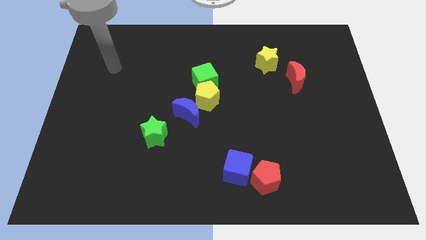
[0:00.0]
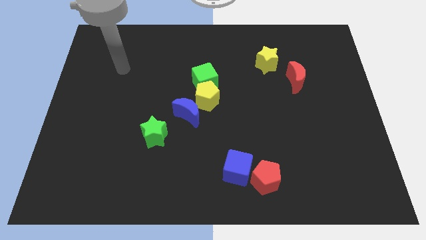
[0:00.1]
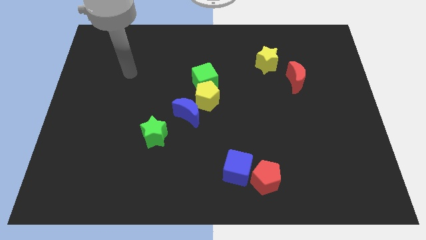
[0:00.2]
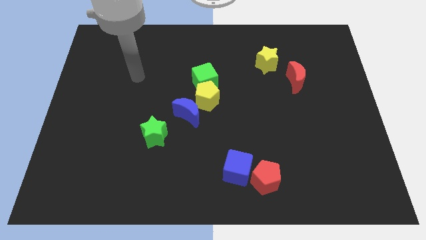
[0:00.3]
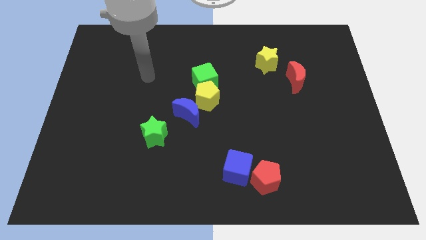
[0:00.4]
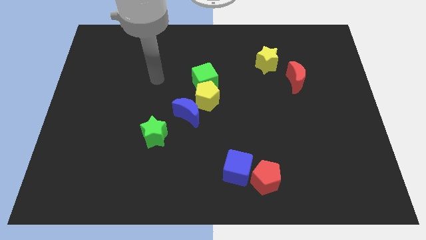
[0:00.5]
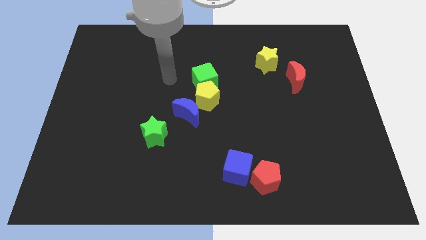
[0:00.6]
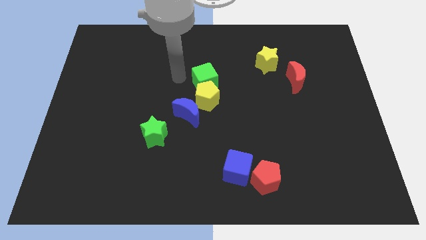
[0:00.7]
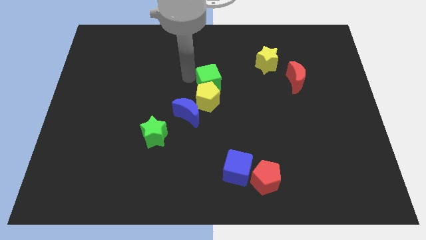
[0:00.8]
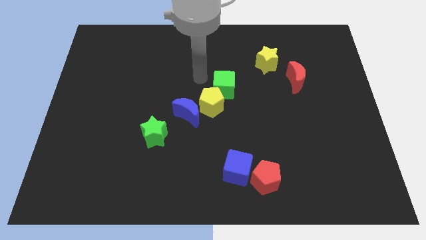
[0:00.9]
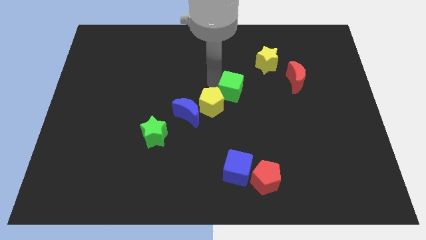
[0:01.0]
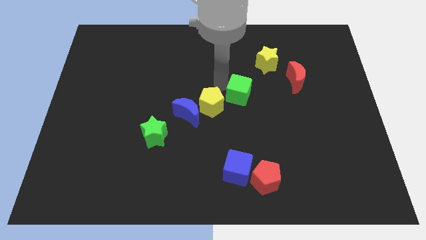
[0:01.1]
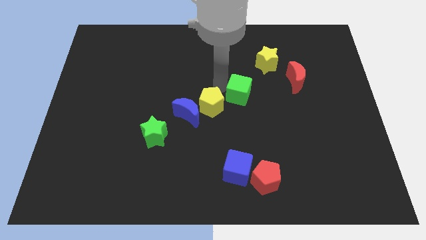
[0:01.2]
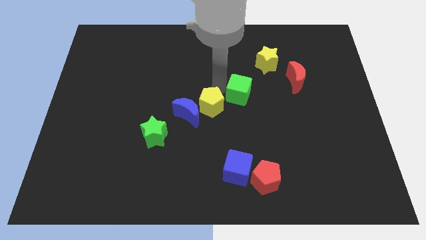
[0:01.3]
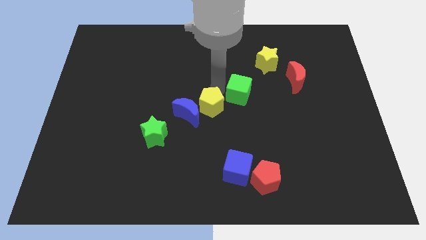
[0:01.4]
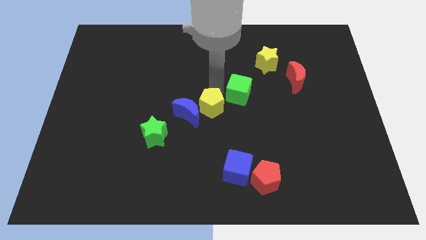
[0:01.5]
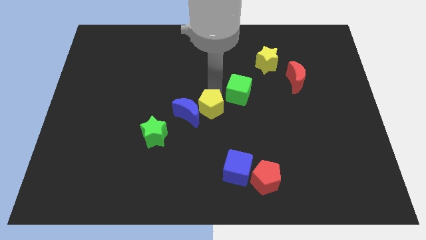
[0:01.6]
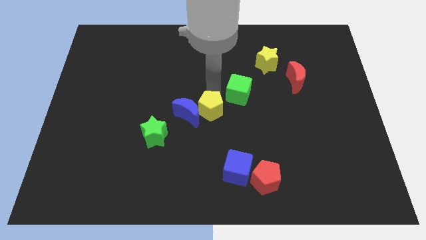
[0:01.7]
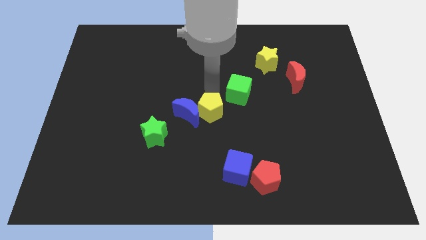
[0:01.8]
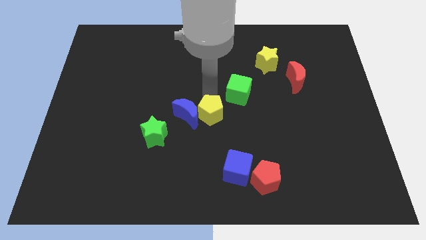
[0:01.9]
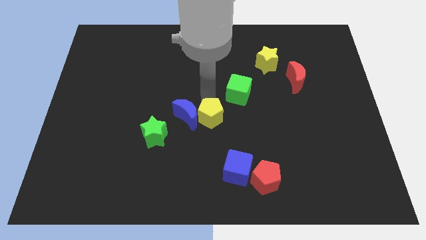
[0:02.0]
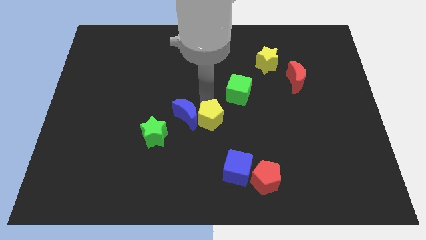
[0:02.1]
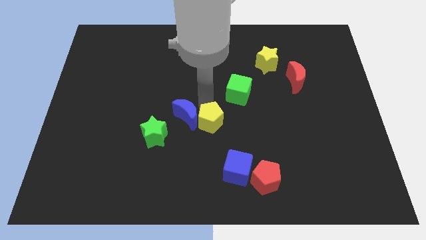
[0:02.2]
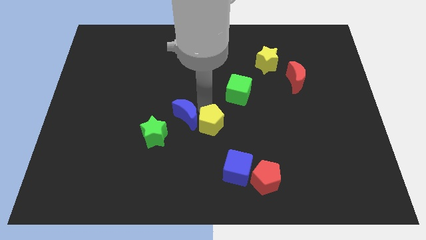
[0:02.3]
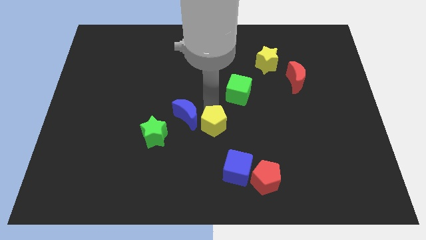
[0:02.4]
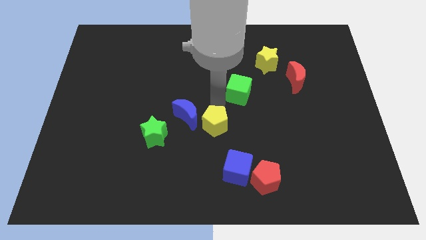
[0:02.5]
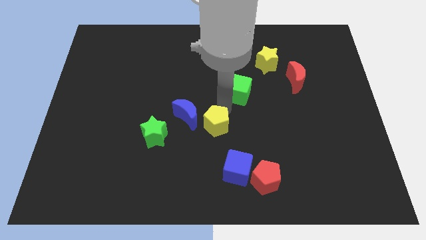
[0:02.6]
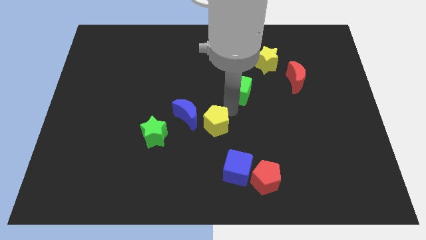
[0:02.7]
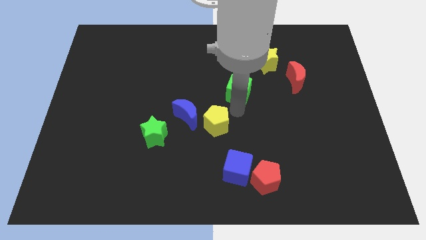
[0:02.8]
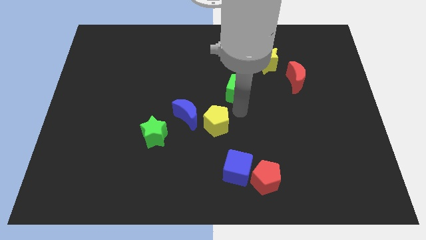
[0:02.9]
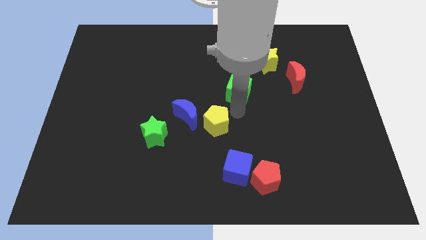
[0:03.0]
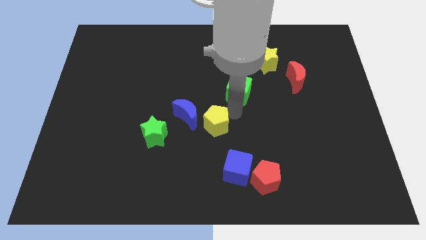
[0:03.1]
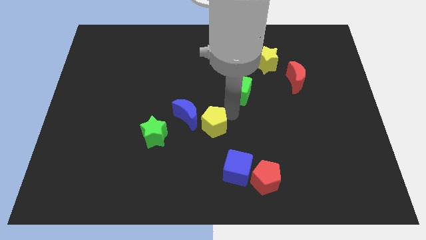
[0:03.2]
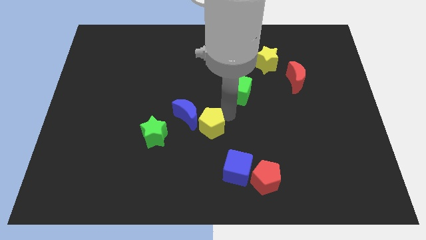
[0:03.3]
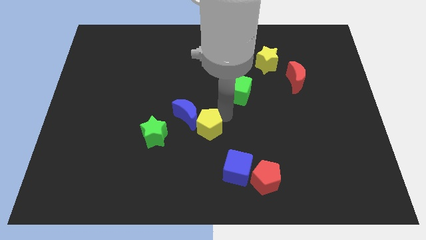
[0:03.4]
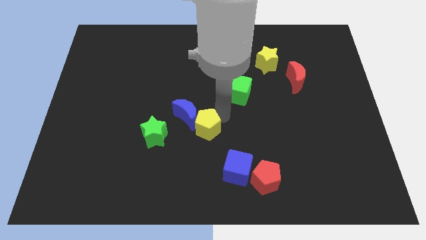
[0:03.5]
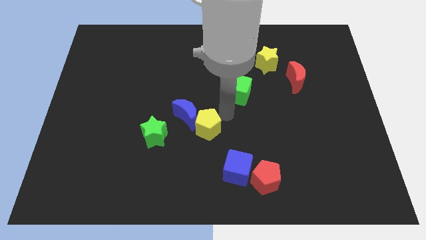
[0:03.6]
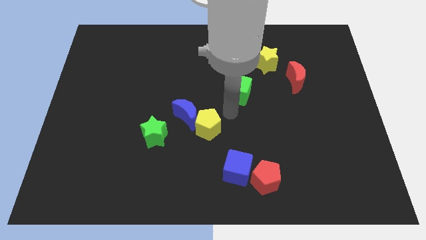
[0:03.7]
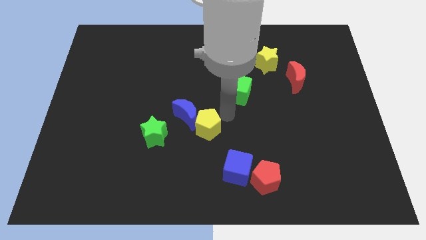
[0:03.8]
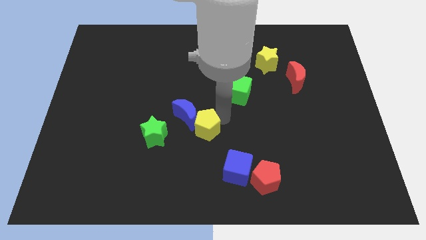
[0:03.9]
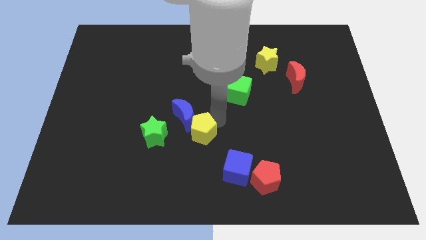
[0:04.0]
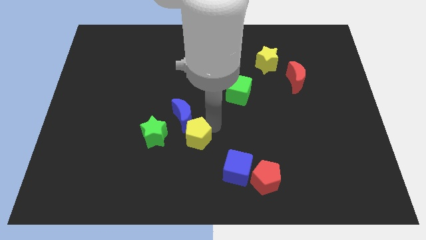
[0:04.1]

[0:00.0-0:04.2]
slightly push the yellow pentagon diagonally downwards and left

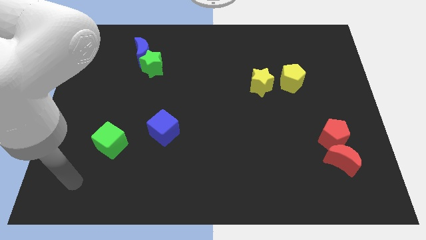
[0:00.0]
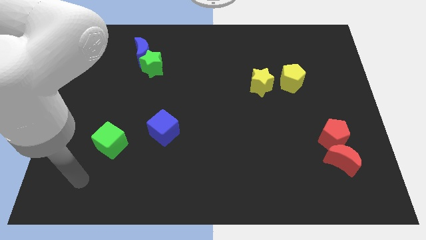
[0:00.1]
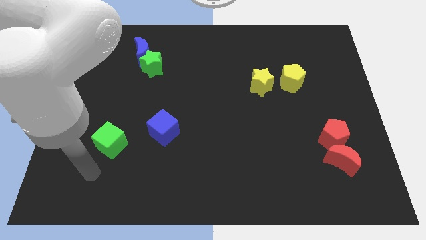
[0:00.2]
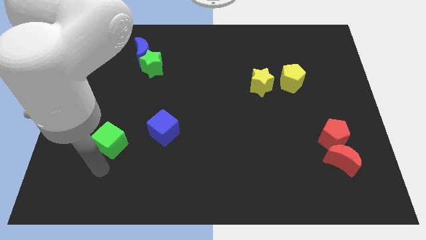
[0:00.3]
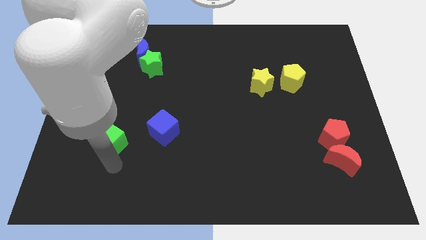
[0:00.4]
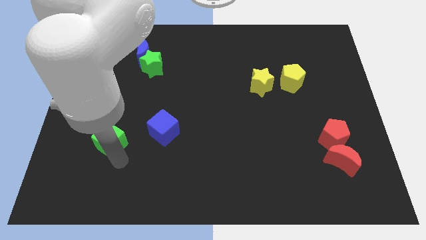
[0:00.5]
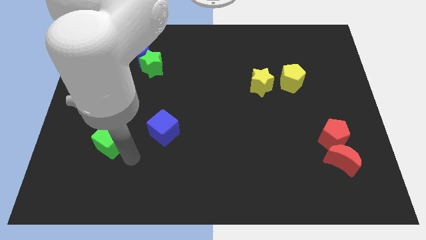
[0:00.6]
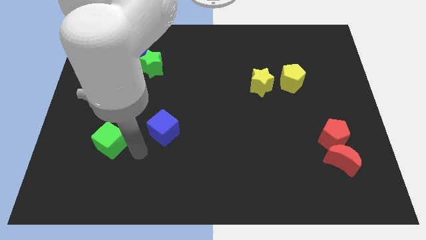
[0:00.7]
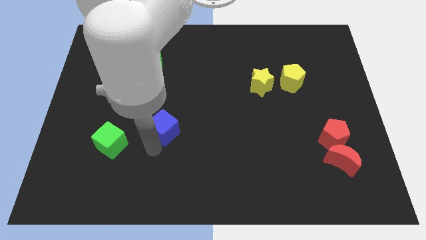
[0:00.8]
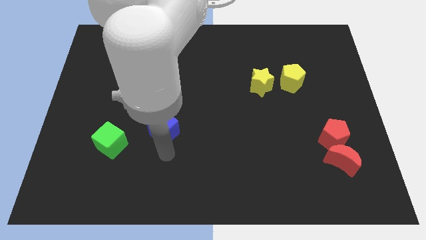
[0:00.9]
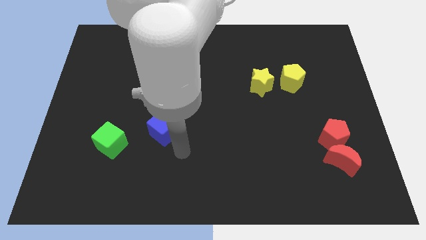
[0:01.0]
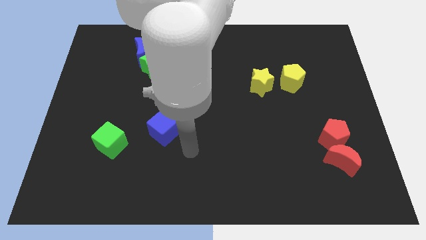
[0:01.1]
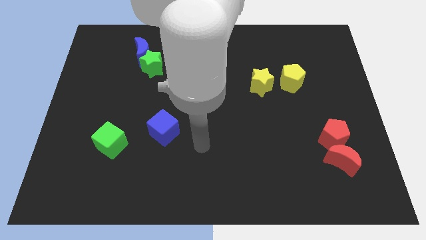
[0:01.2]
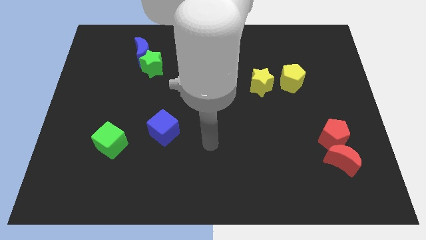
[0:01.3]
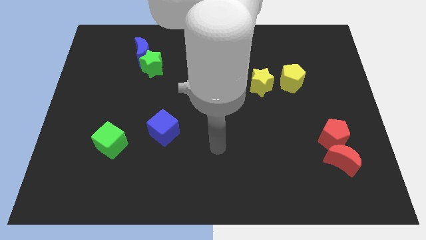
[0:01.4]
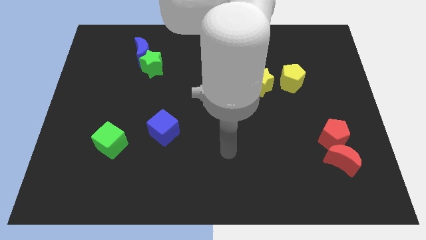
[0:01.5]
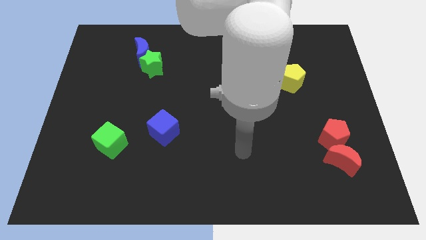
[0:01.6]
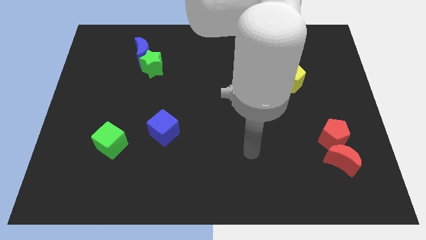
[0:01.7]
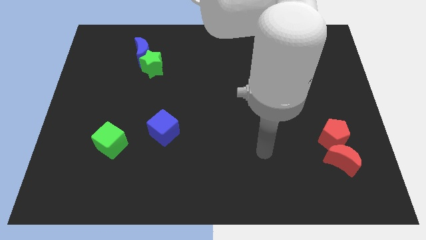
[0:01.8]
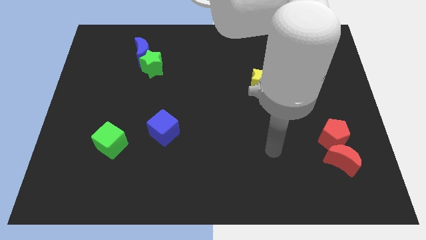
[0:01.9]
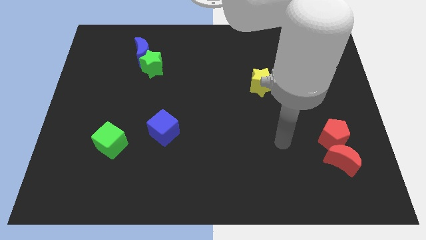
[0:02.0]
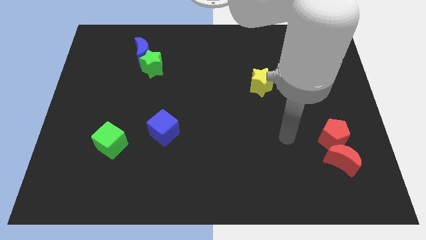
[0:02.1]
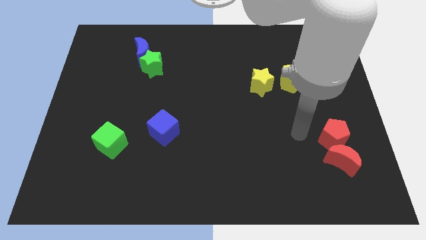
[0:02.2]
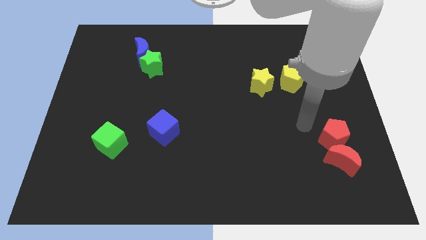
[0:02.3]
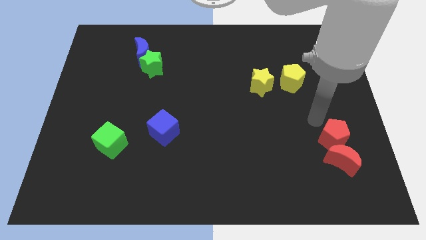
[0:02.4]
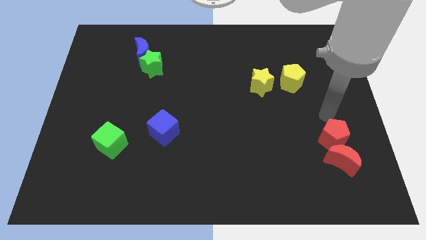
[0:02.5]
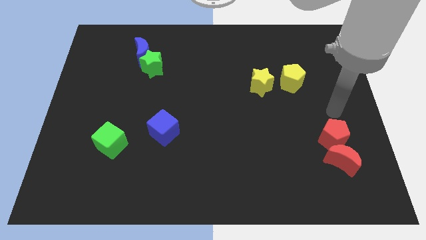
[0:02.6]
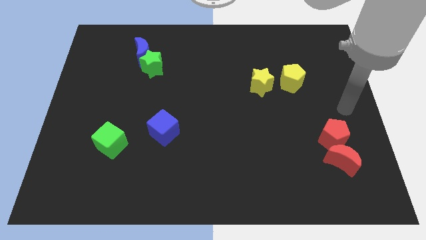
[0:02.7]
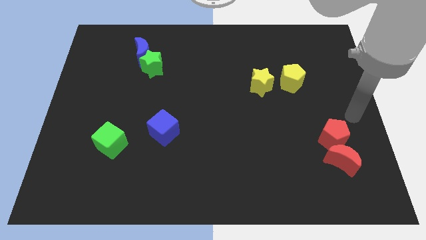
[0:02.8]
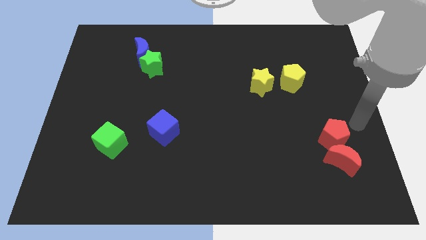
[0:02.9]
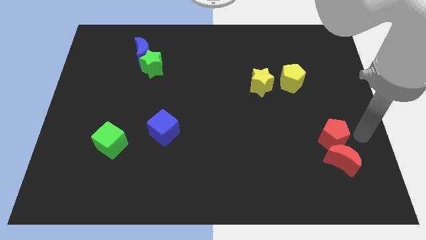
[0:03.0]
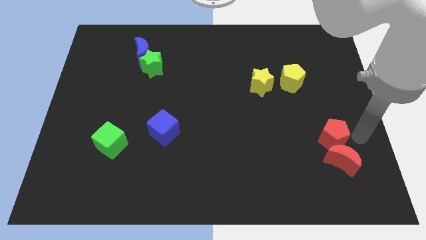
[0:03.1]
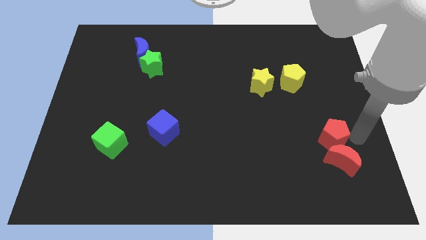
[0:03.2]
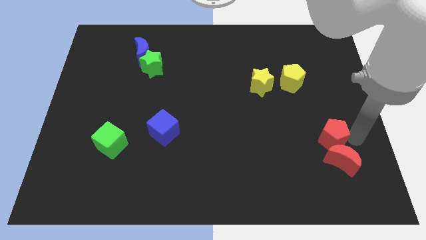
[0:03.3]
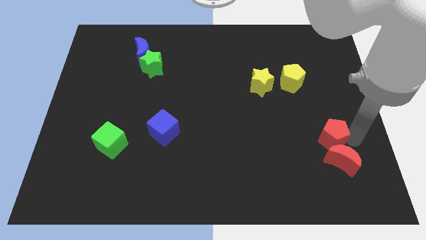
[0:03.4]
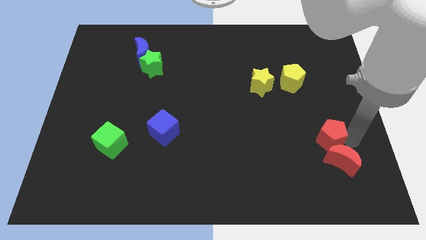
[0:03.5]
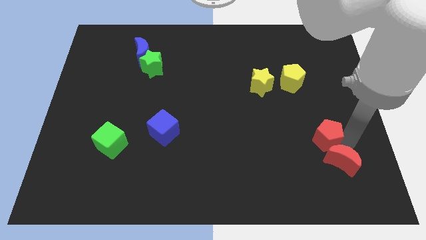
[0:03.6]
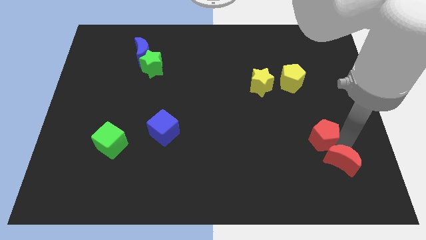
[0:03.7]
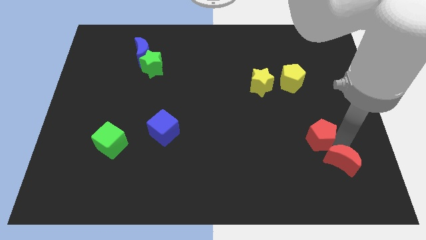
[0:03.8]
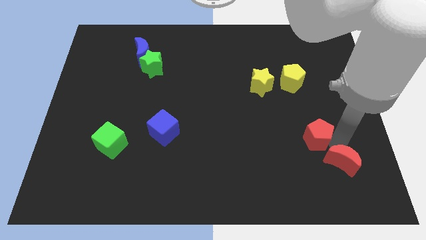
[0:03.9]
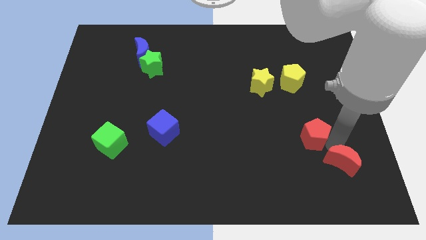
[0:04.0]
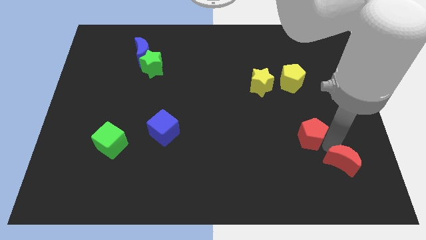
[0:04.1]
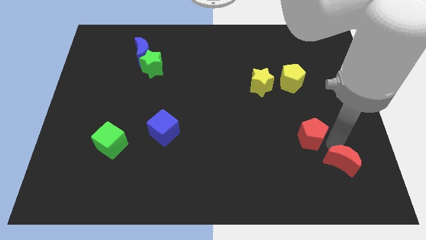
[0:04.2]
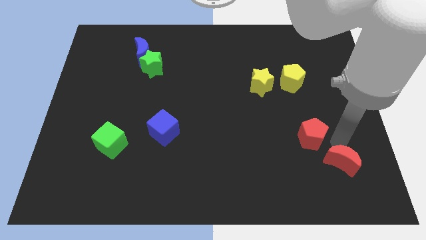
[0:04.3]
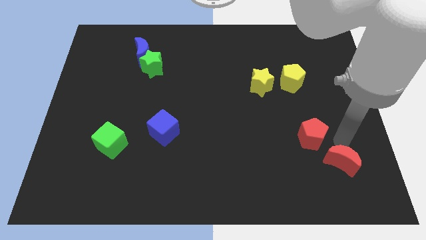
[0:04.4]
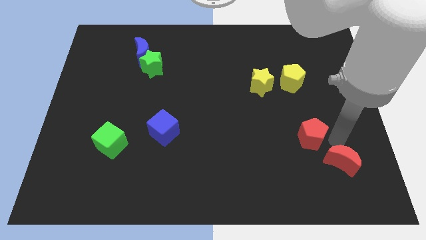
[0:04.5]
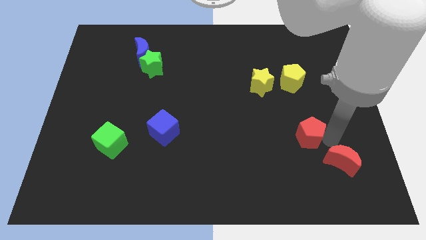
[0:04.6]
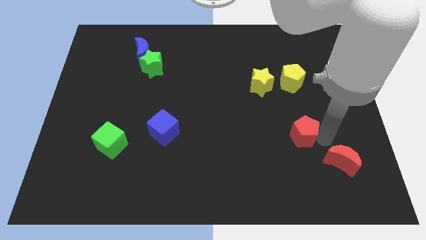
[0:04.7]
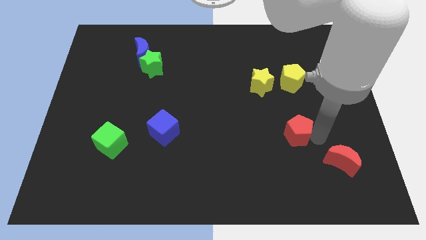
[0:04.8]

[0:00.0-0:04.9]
slide the red pentagon left a little
